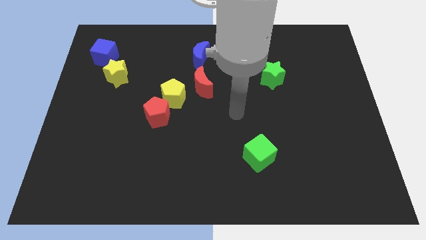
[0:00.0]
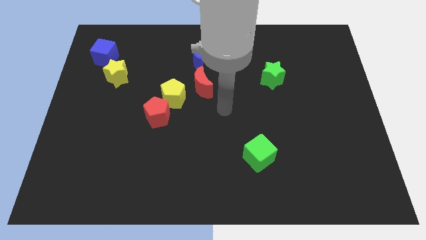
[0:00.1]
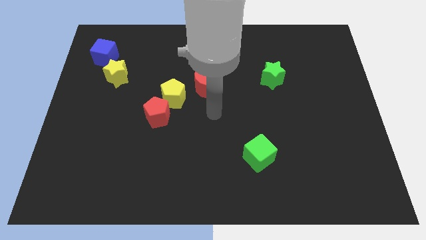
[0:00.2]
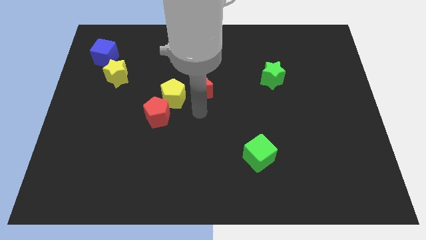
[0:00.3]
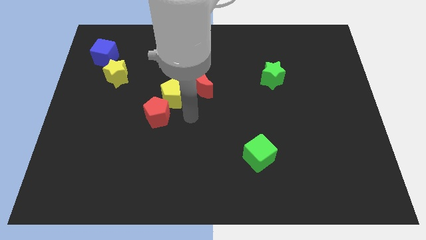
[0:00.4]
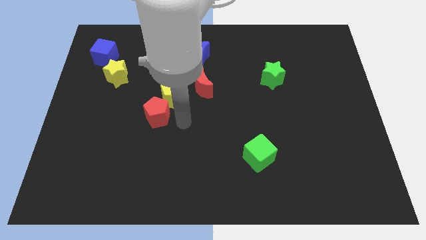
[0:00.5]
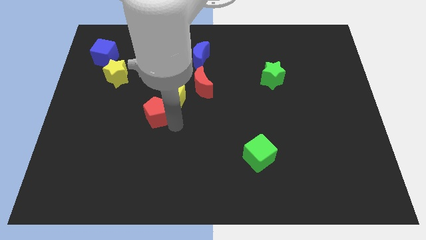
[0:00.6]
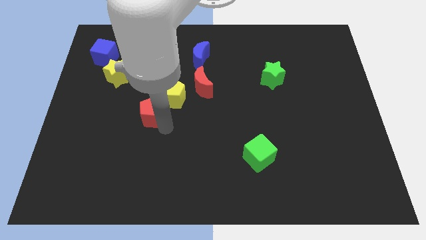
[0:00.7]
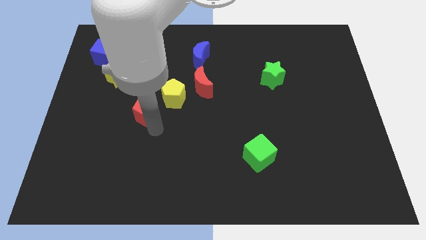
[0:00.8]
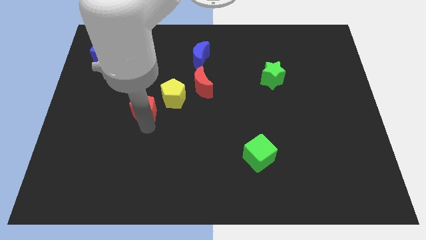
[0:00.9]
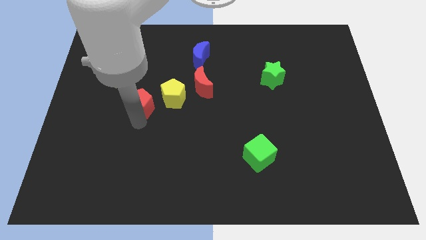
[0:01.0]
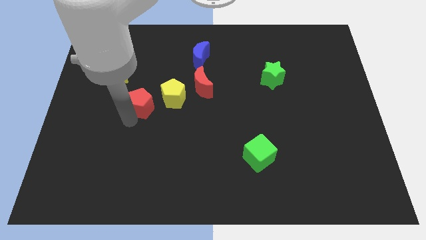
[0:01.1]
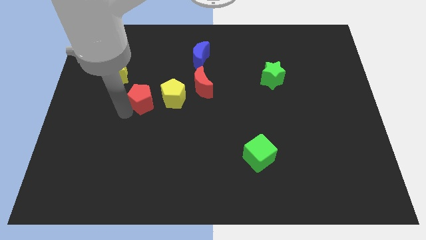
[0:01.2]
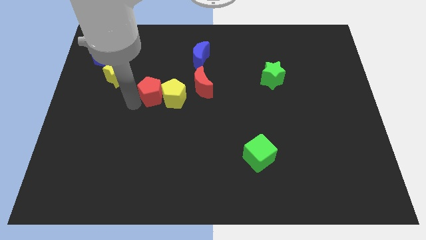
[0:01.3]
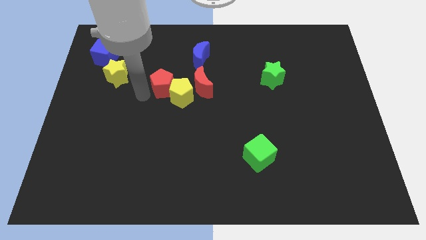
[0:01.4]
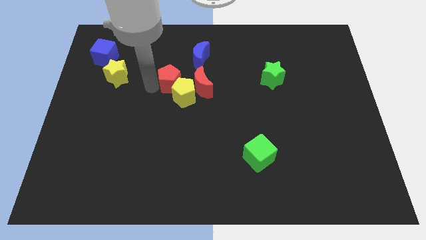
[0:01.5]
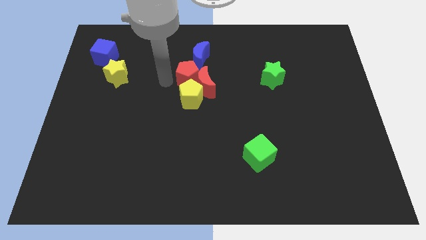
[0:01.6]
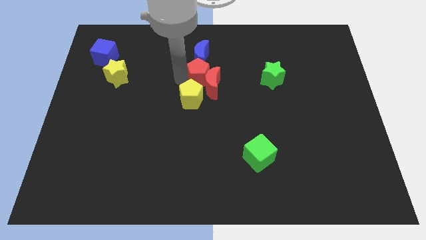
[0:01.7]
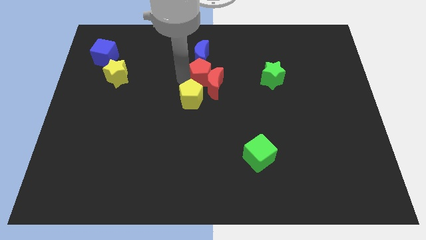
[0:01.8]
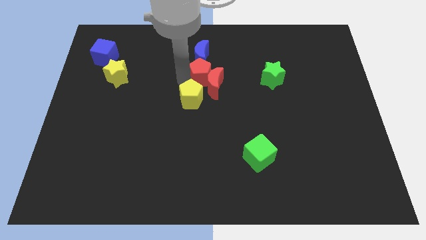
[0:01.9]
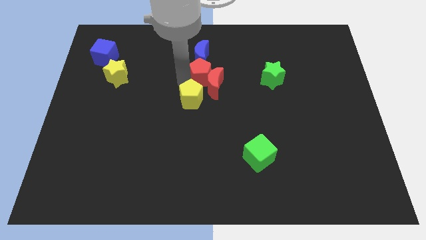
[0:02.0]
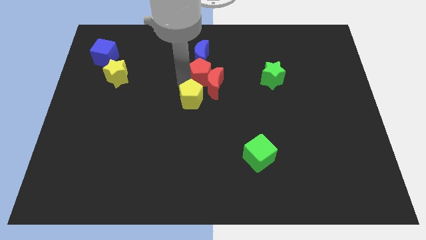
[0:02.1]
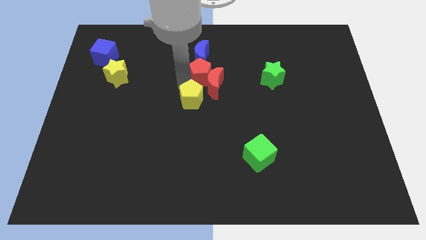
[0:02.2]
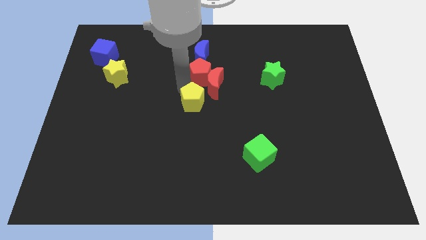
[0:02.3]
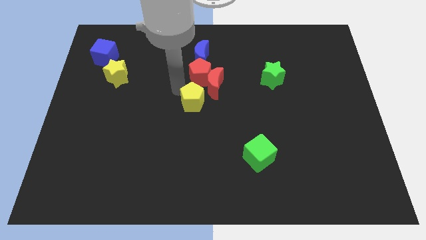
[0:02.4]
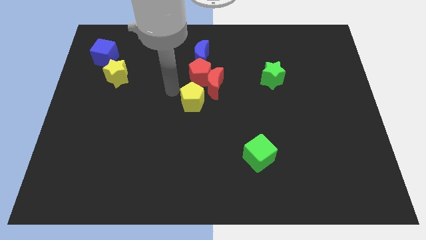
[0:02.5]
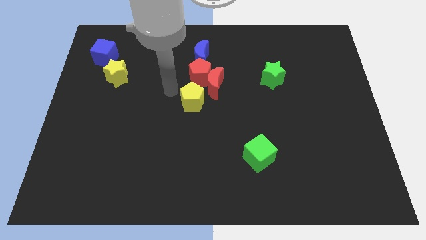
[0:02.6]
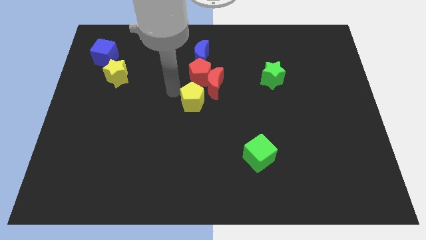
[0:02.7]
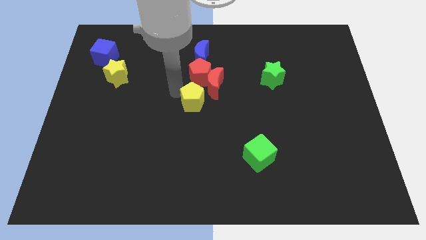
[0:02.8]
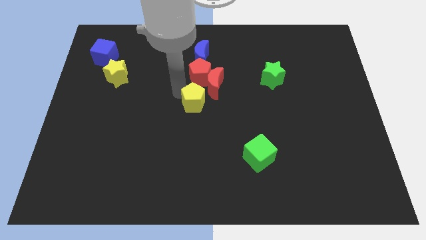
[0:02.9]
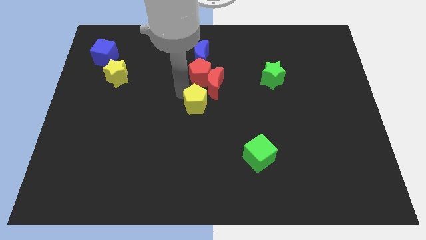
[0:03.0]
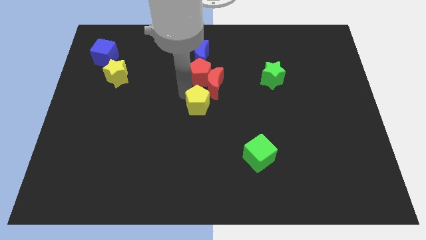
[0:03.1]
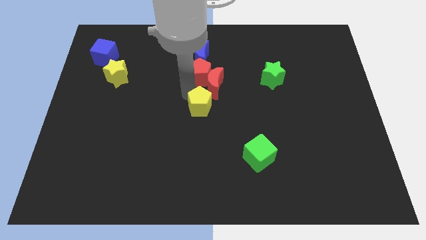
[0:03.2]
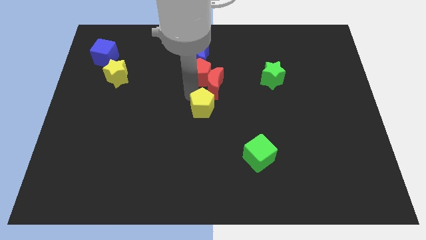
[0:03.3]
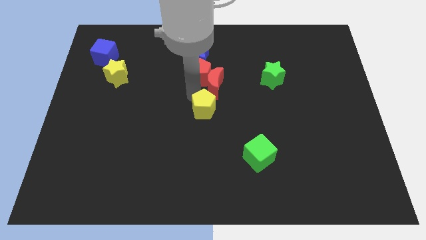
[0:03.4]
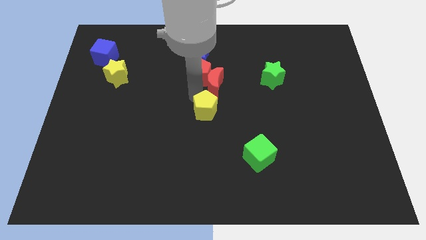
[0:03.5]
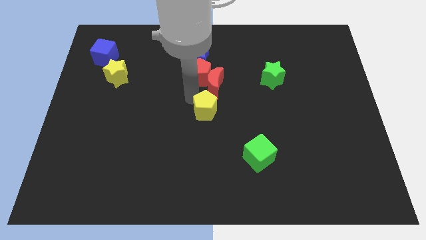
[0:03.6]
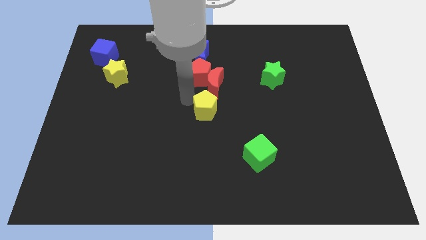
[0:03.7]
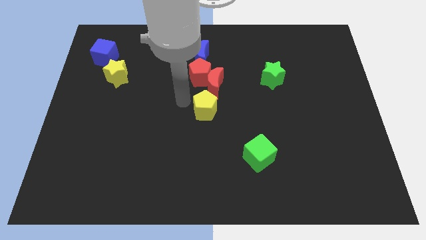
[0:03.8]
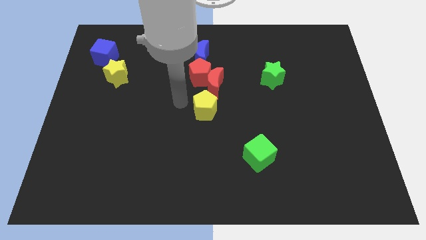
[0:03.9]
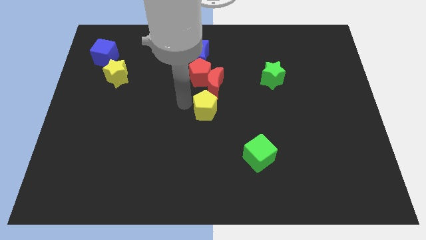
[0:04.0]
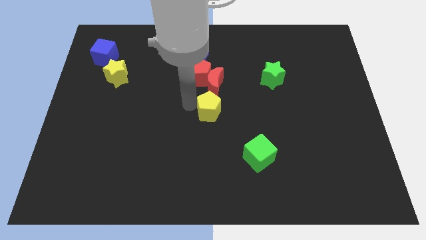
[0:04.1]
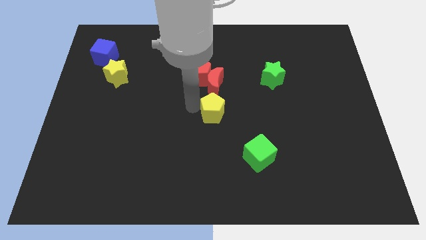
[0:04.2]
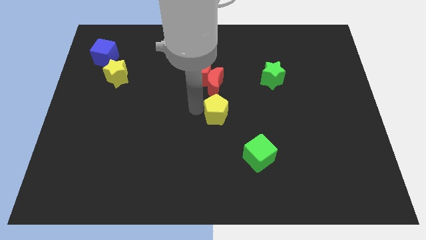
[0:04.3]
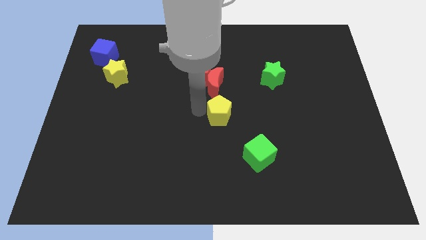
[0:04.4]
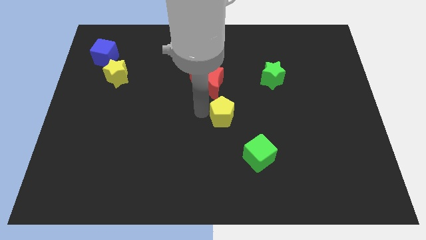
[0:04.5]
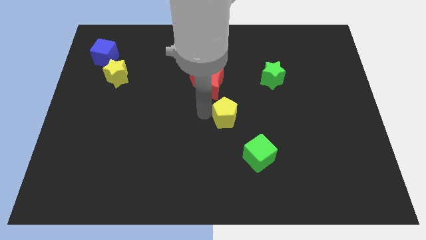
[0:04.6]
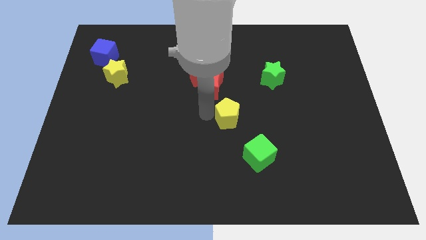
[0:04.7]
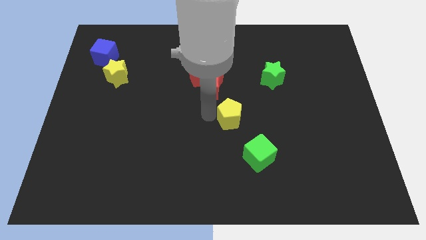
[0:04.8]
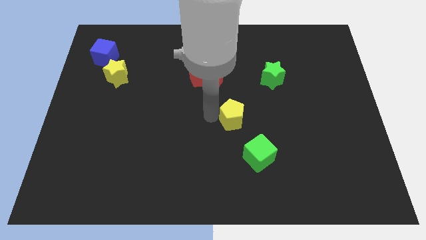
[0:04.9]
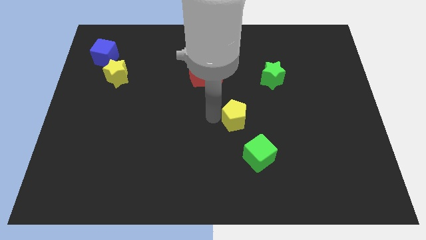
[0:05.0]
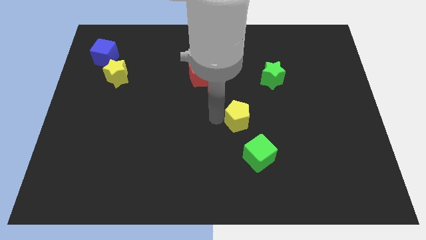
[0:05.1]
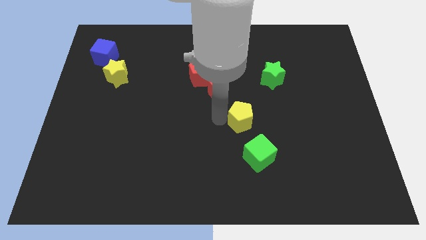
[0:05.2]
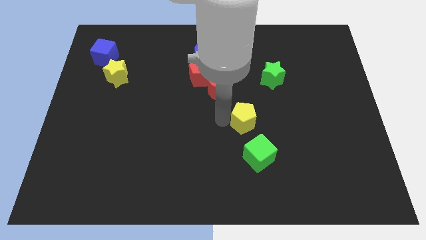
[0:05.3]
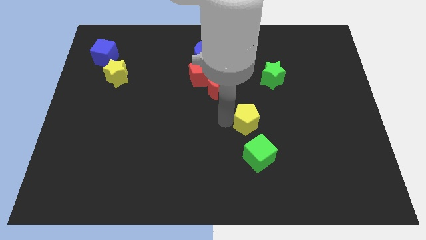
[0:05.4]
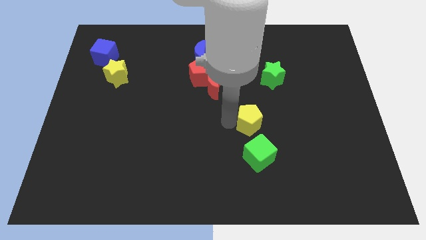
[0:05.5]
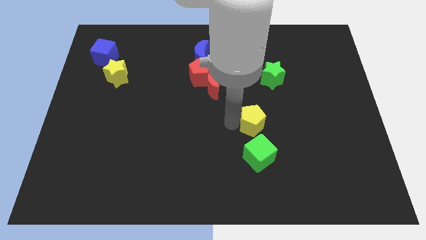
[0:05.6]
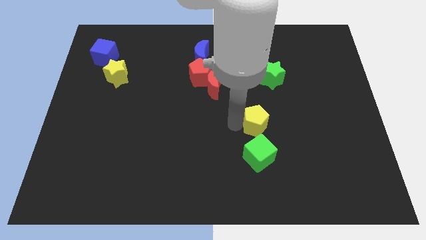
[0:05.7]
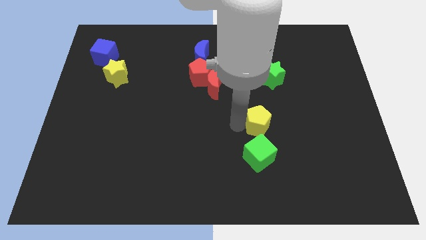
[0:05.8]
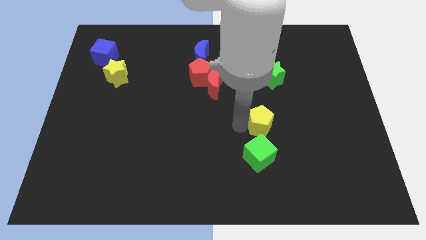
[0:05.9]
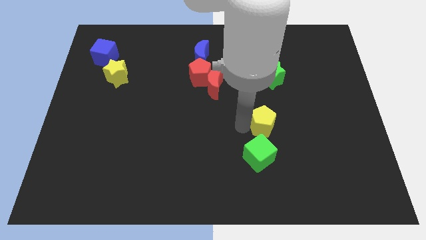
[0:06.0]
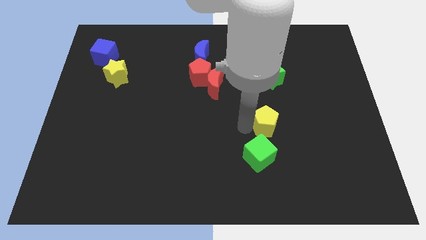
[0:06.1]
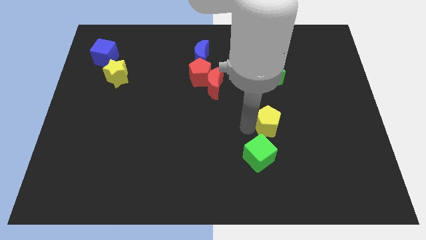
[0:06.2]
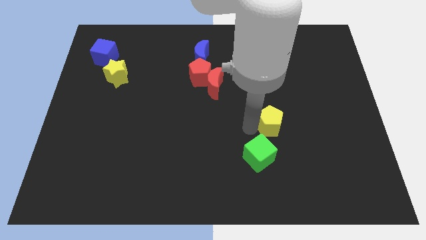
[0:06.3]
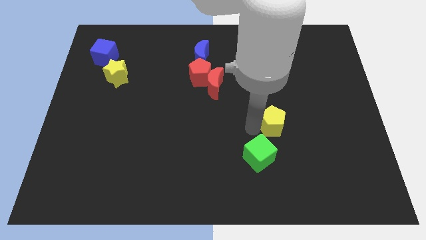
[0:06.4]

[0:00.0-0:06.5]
slide the yellow pentagon to the right

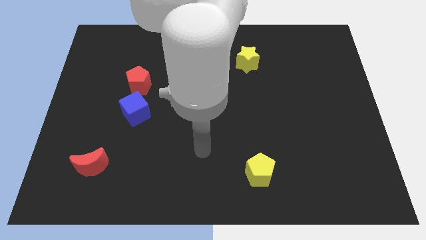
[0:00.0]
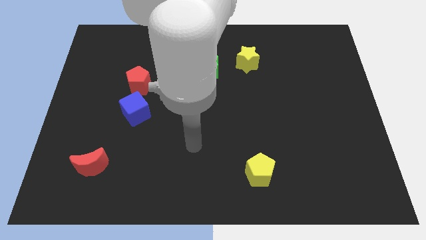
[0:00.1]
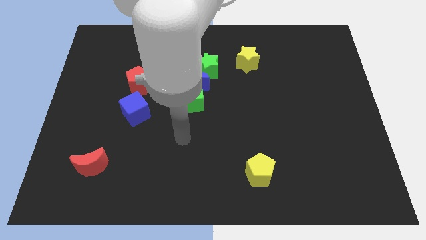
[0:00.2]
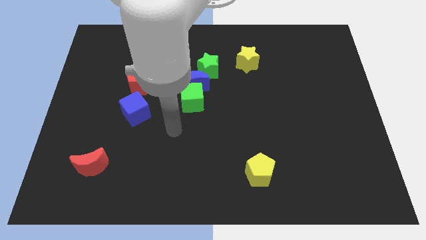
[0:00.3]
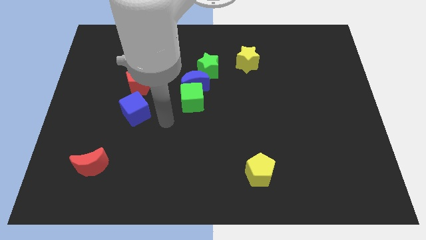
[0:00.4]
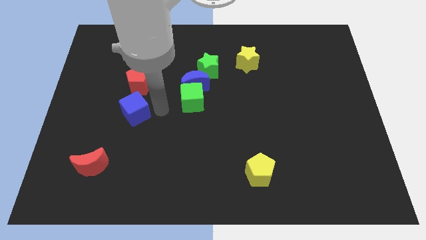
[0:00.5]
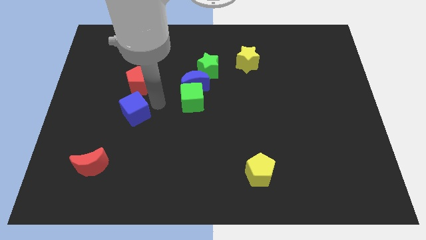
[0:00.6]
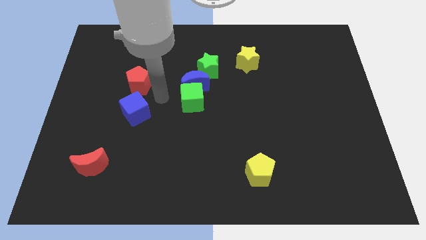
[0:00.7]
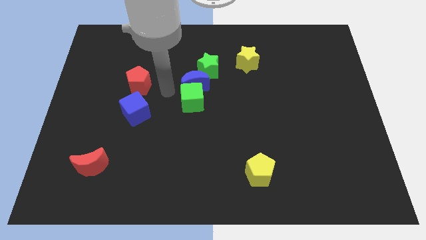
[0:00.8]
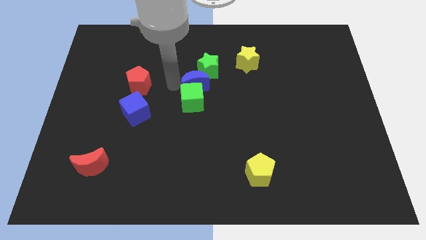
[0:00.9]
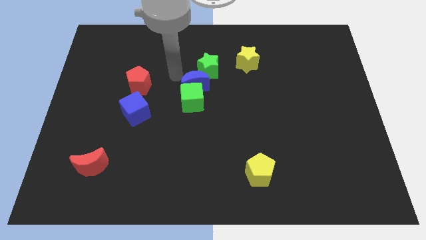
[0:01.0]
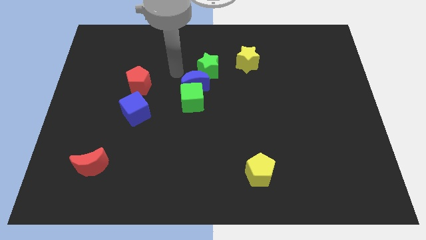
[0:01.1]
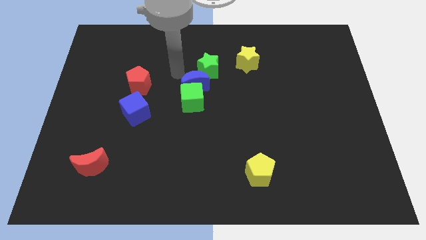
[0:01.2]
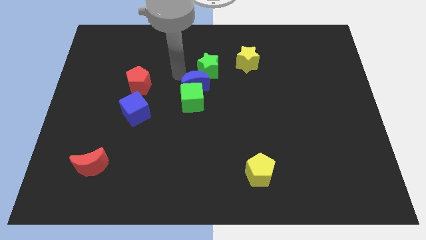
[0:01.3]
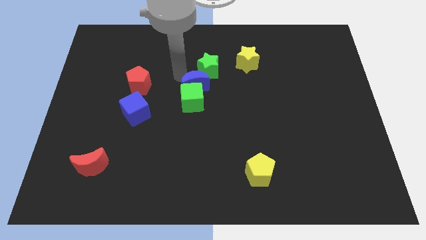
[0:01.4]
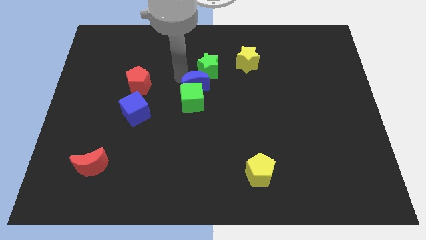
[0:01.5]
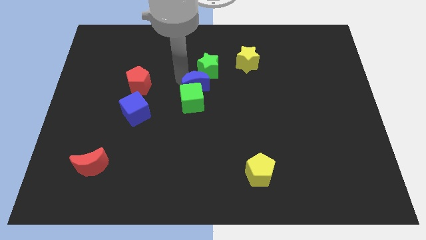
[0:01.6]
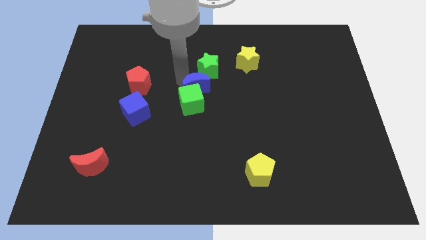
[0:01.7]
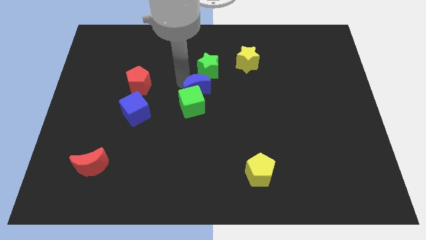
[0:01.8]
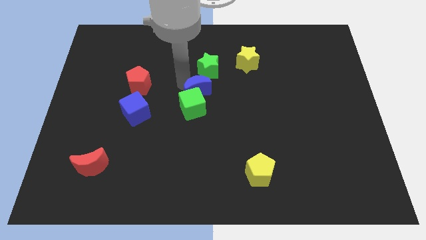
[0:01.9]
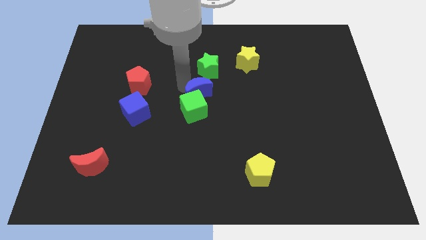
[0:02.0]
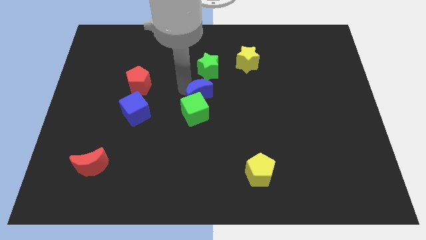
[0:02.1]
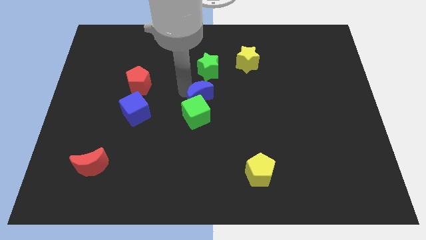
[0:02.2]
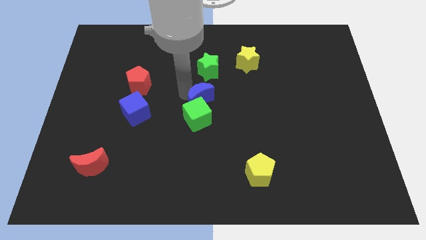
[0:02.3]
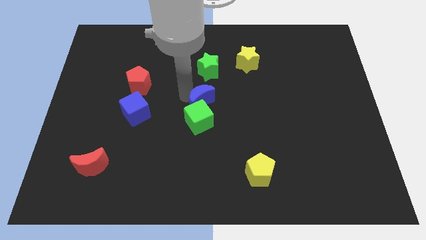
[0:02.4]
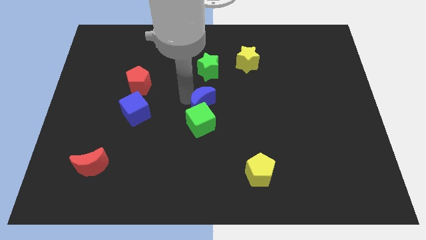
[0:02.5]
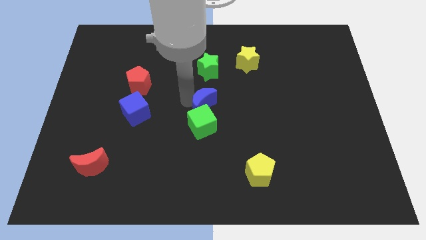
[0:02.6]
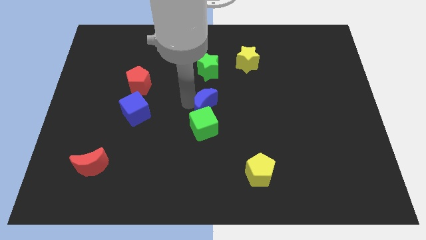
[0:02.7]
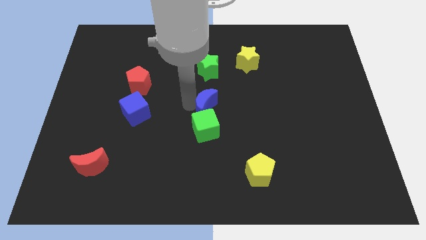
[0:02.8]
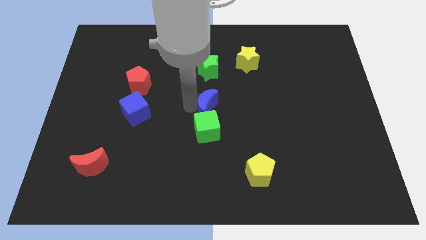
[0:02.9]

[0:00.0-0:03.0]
slightly slide the blue moon downwards and right diagonally
